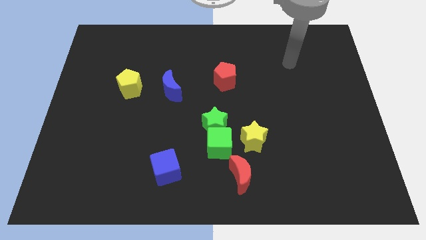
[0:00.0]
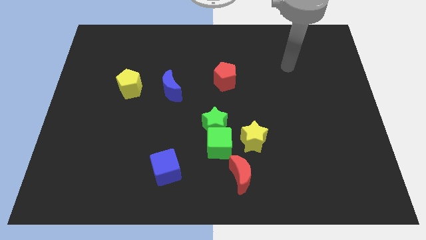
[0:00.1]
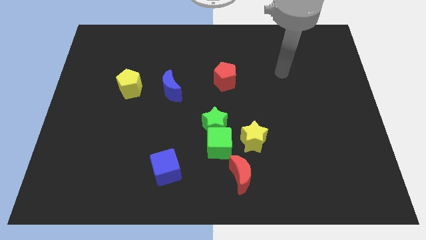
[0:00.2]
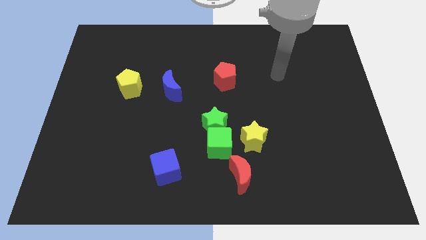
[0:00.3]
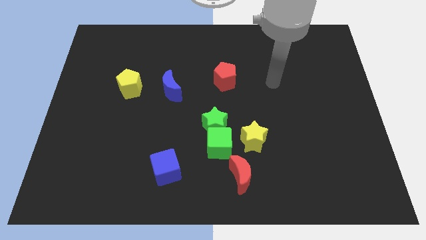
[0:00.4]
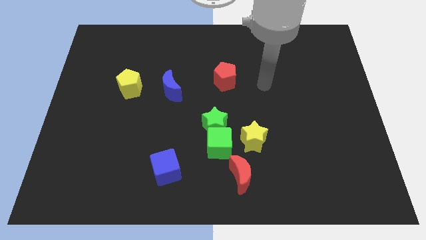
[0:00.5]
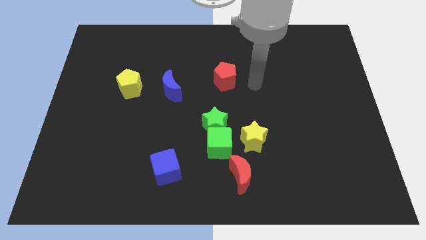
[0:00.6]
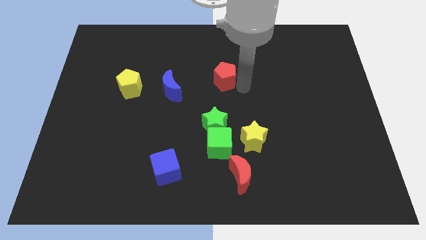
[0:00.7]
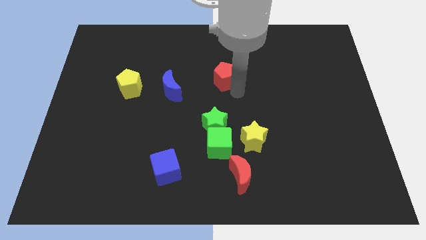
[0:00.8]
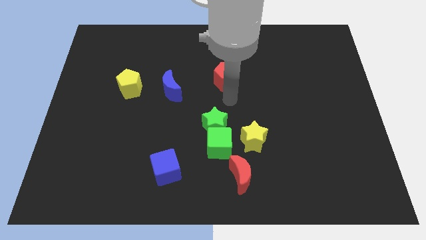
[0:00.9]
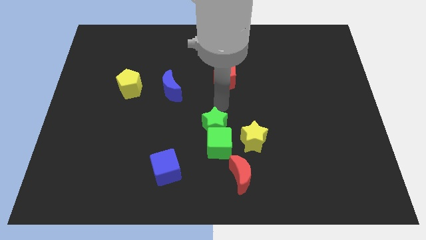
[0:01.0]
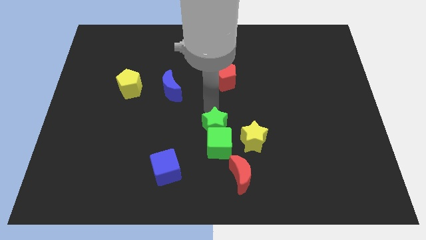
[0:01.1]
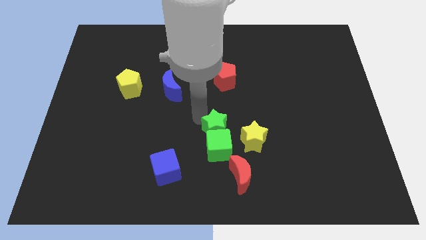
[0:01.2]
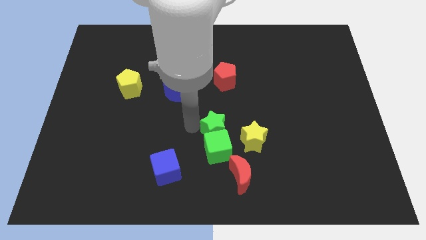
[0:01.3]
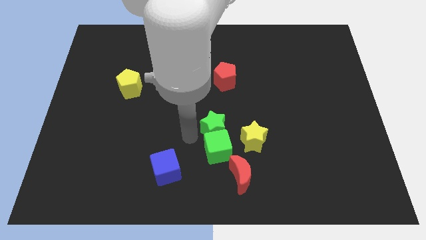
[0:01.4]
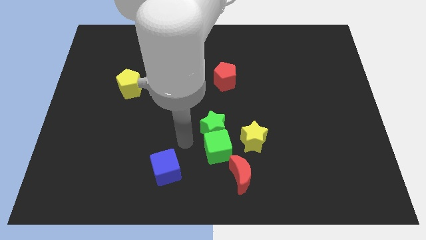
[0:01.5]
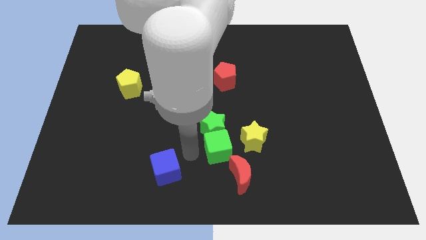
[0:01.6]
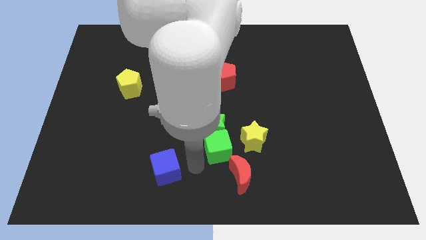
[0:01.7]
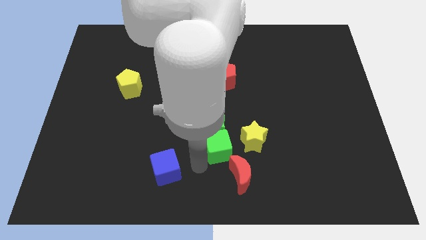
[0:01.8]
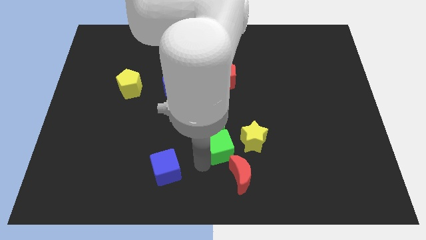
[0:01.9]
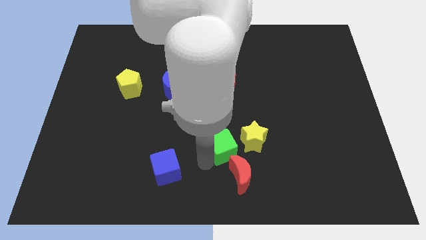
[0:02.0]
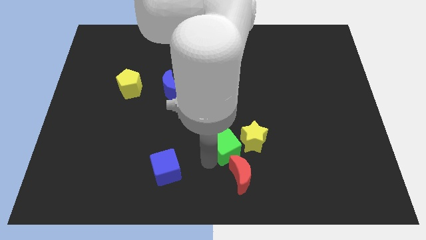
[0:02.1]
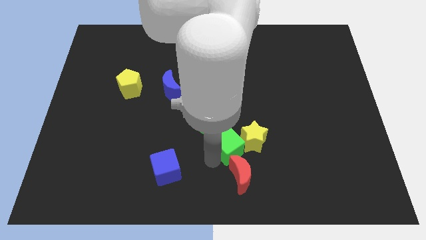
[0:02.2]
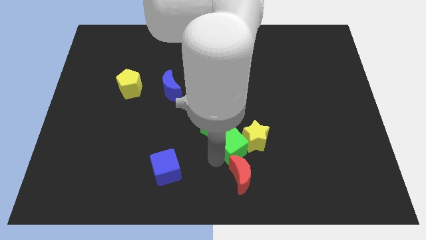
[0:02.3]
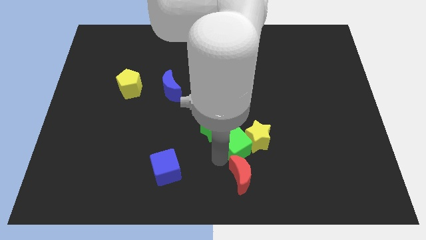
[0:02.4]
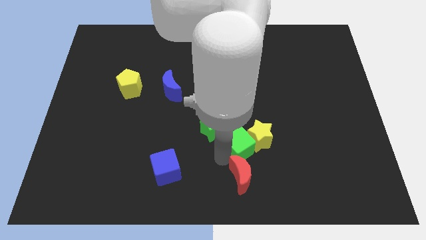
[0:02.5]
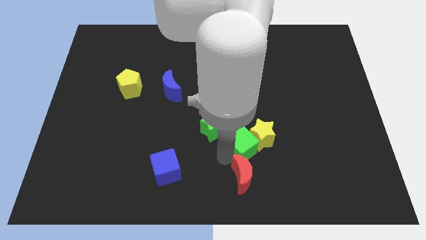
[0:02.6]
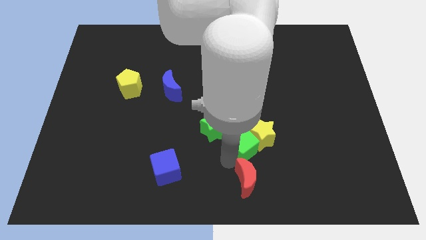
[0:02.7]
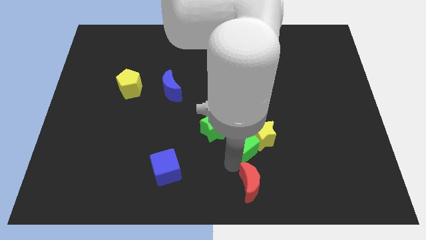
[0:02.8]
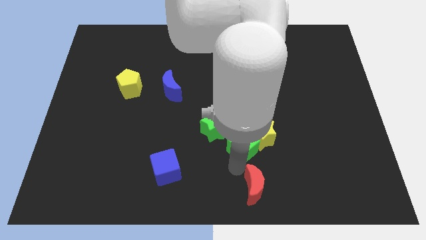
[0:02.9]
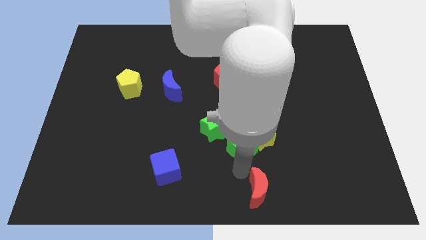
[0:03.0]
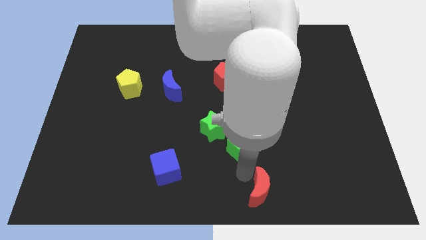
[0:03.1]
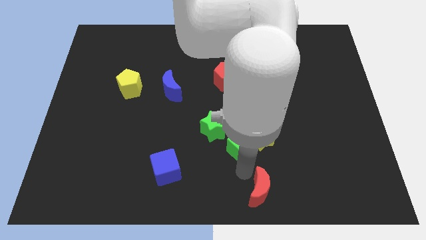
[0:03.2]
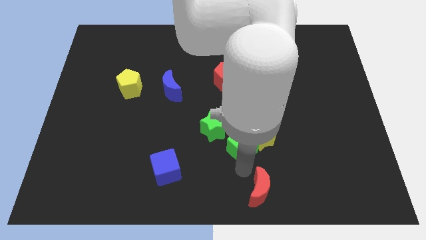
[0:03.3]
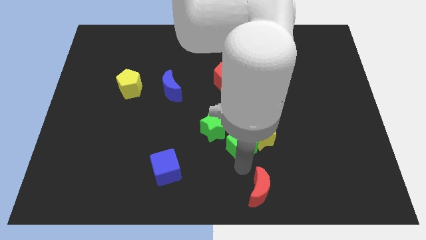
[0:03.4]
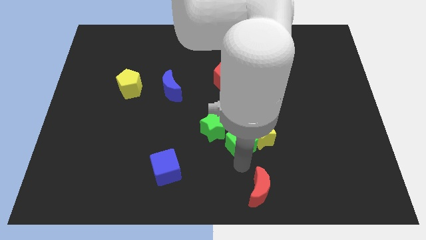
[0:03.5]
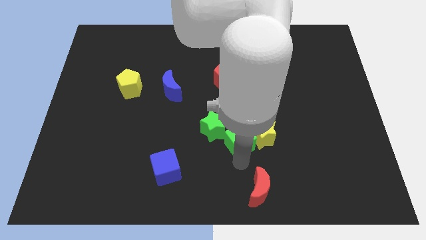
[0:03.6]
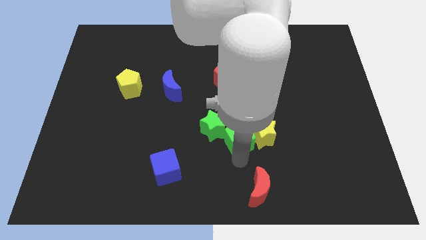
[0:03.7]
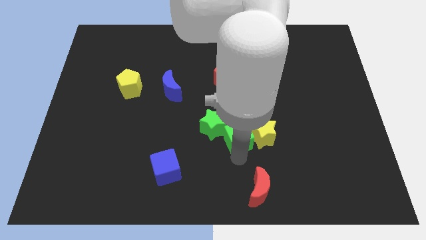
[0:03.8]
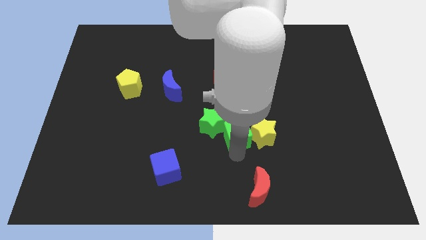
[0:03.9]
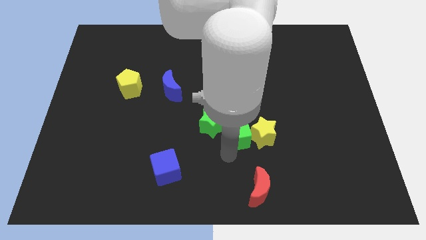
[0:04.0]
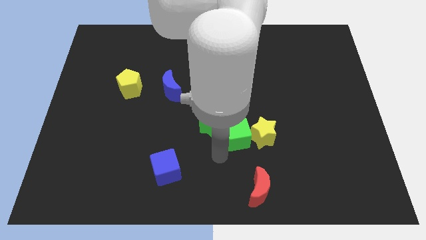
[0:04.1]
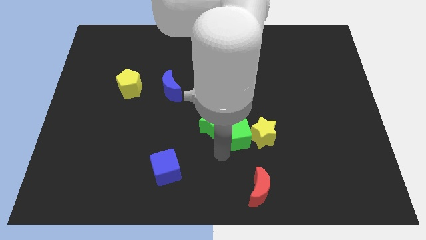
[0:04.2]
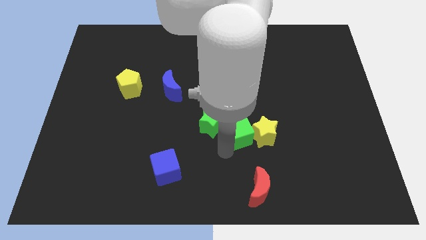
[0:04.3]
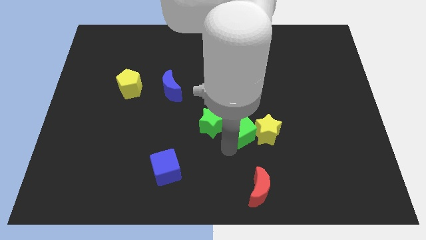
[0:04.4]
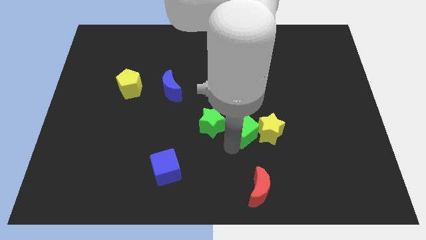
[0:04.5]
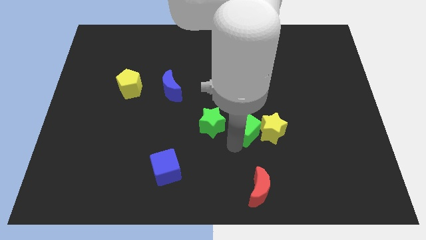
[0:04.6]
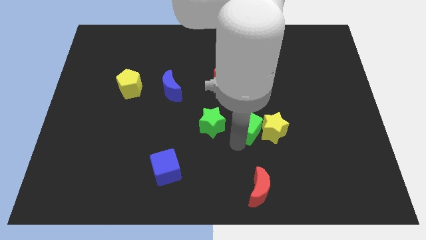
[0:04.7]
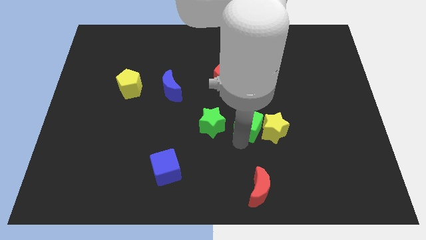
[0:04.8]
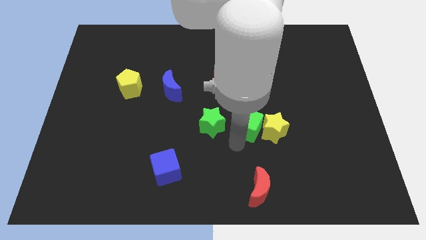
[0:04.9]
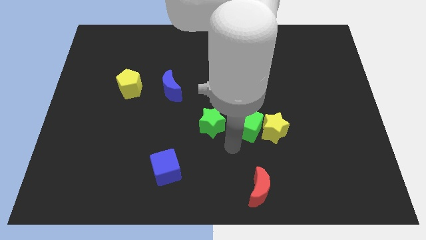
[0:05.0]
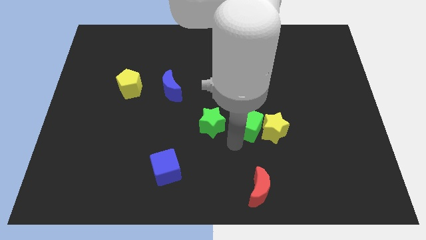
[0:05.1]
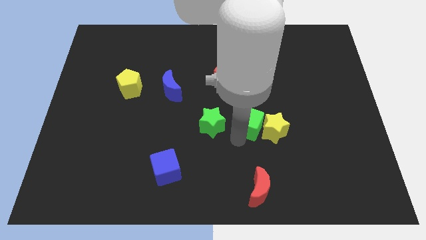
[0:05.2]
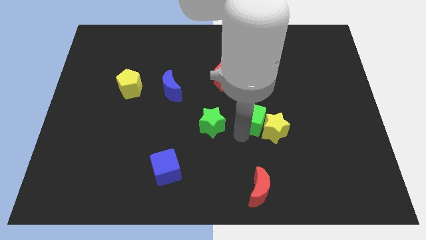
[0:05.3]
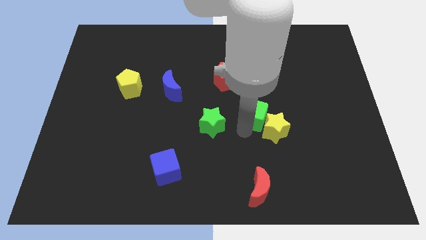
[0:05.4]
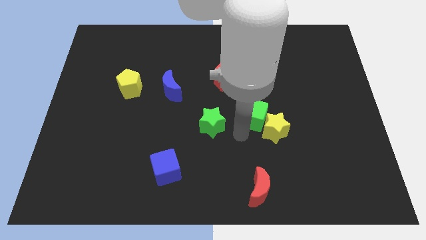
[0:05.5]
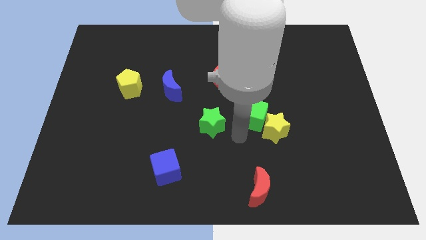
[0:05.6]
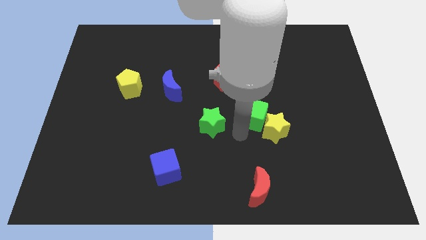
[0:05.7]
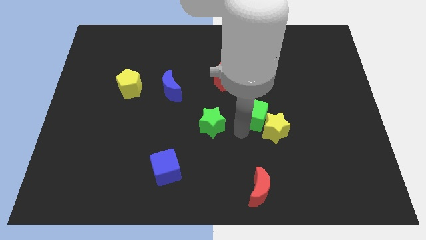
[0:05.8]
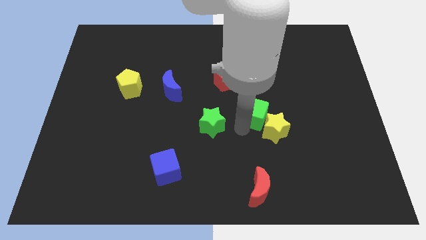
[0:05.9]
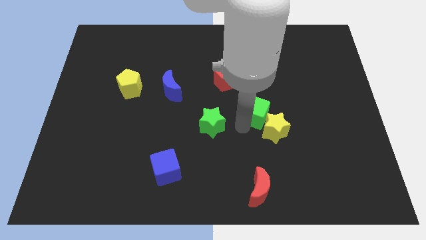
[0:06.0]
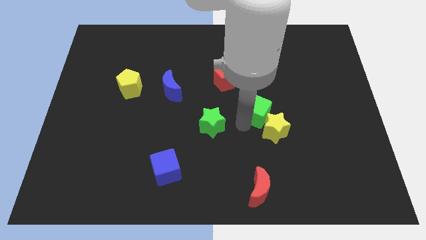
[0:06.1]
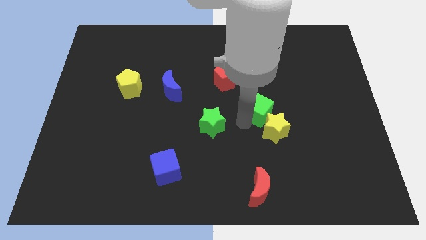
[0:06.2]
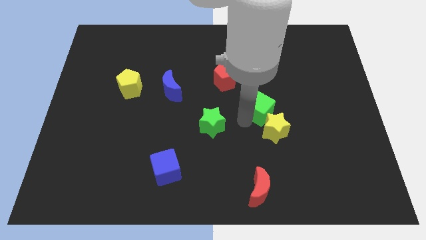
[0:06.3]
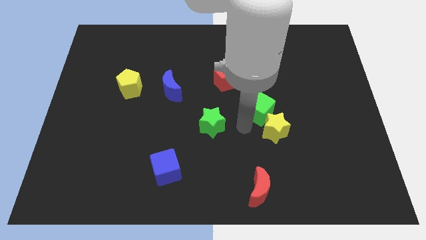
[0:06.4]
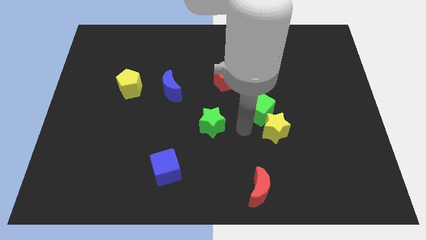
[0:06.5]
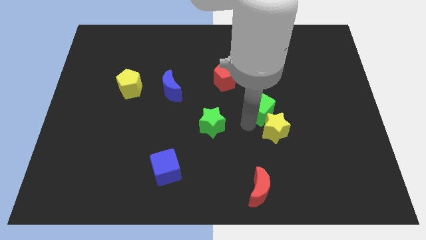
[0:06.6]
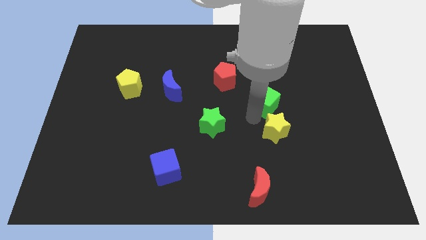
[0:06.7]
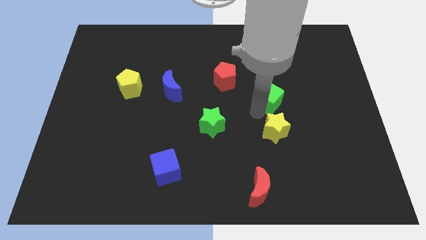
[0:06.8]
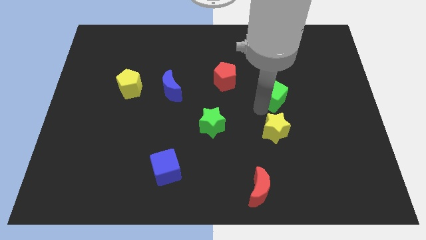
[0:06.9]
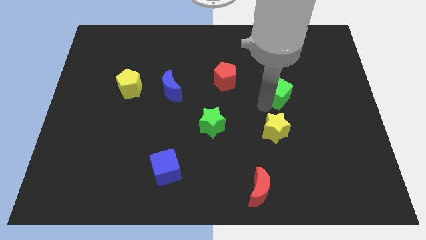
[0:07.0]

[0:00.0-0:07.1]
push the green cube up and right

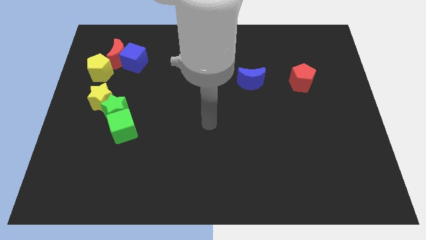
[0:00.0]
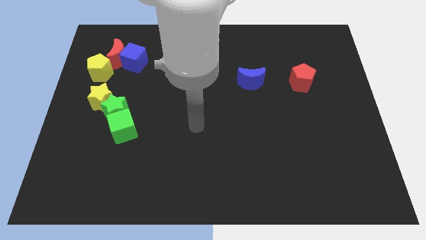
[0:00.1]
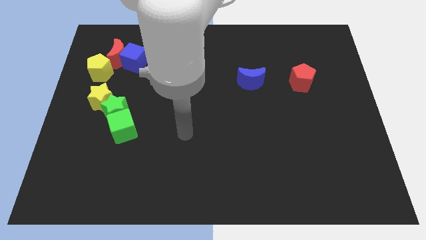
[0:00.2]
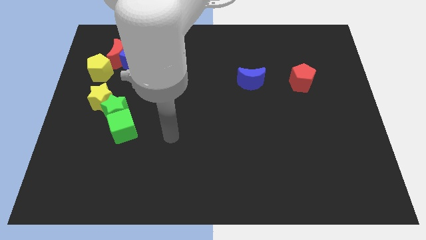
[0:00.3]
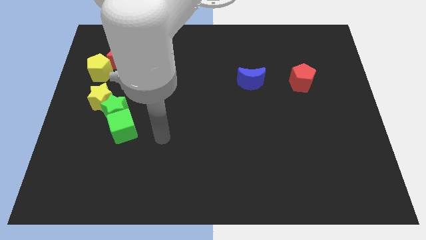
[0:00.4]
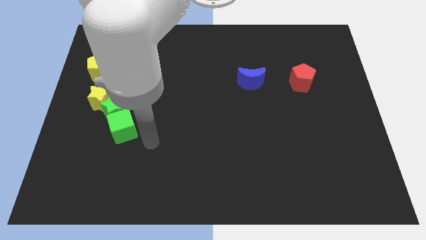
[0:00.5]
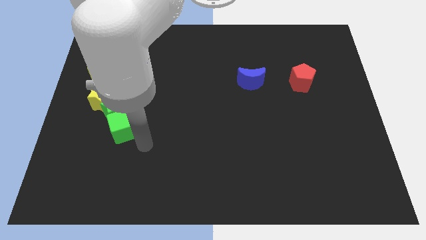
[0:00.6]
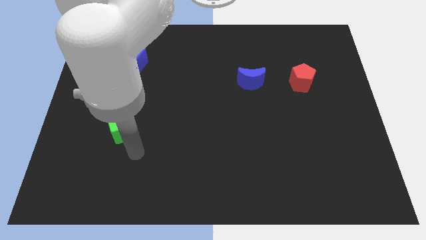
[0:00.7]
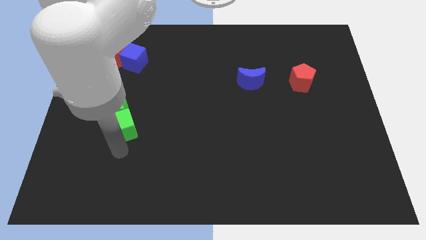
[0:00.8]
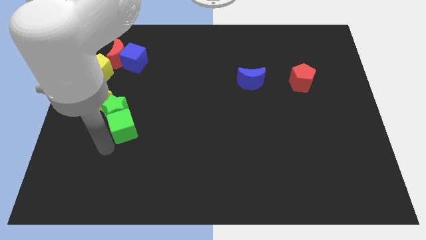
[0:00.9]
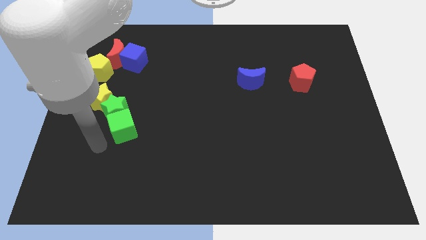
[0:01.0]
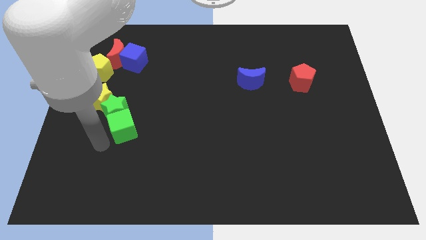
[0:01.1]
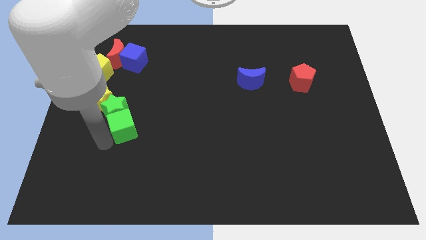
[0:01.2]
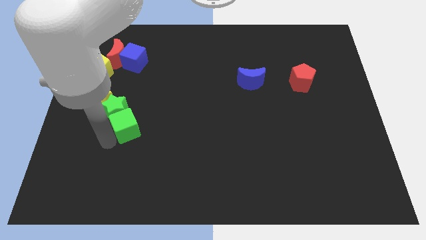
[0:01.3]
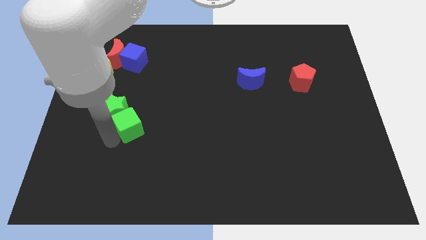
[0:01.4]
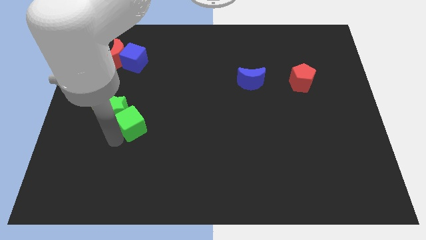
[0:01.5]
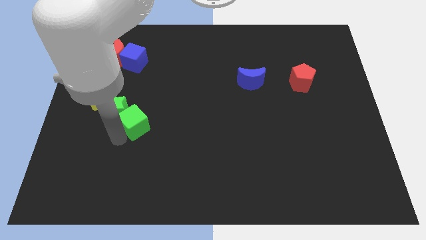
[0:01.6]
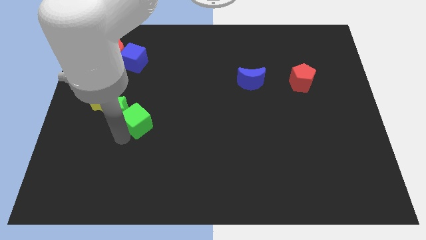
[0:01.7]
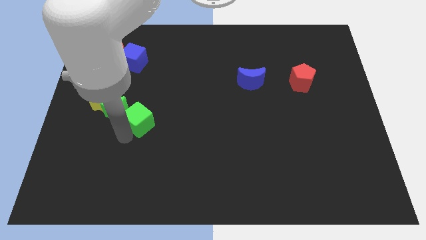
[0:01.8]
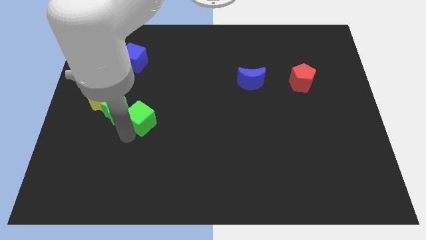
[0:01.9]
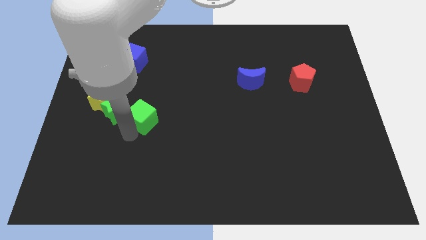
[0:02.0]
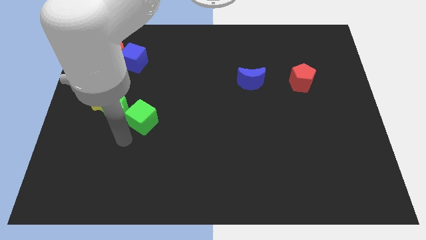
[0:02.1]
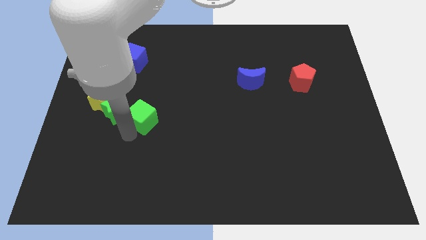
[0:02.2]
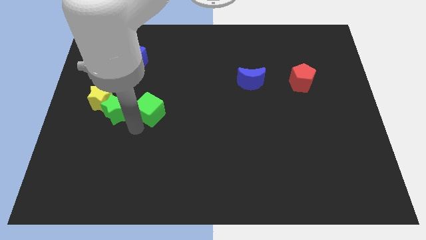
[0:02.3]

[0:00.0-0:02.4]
slightly move the green cube diagonally upwards and to the right
